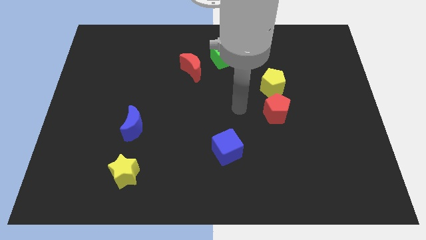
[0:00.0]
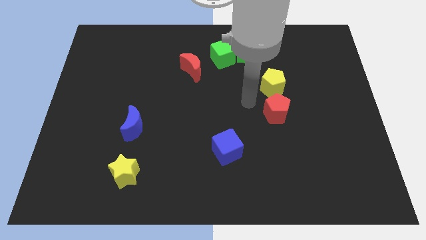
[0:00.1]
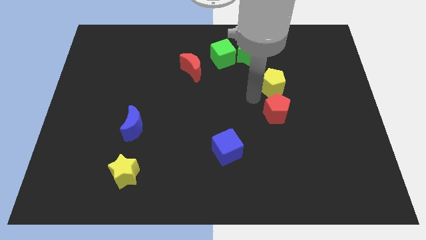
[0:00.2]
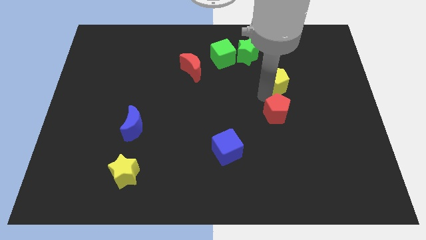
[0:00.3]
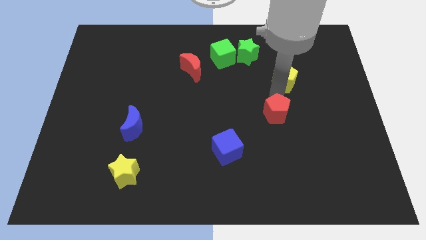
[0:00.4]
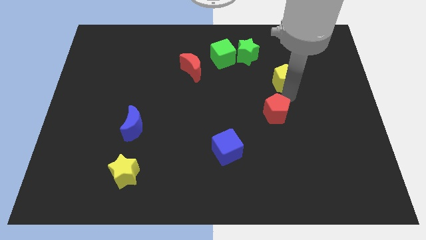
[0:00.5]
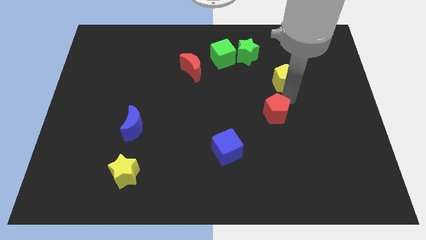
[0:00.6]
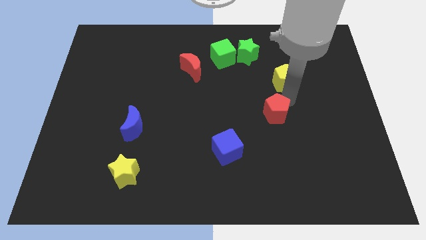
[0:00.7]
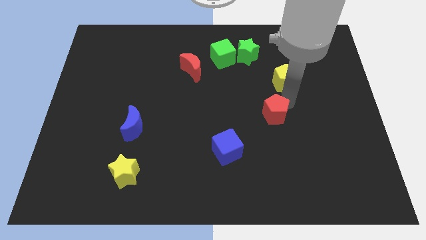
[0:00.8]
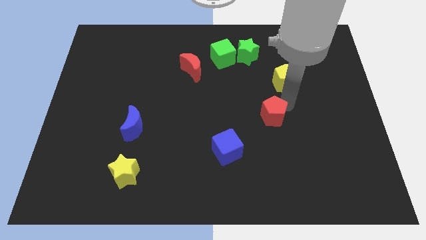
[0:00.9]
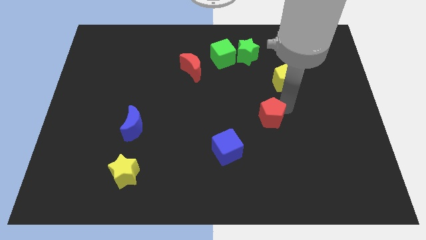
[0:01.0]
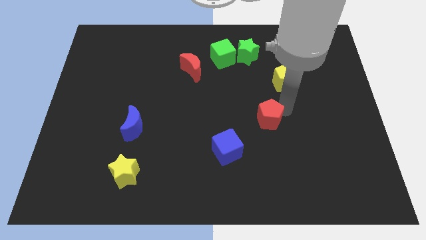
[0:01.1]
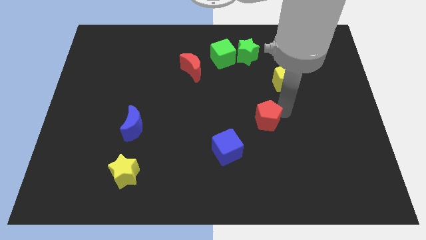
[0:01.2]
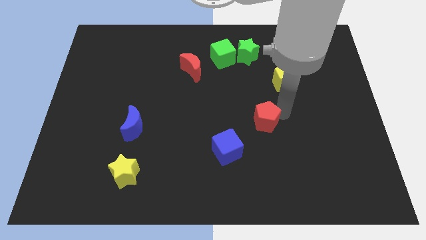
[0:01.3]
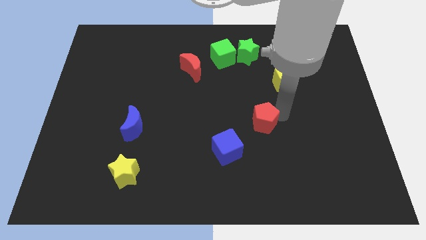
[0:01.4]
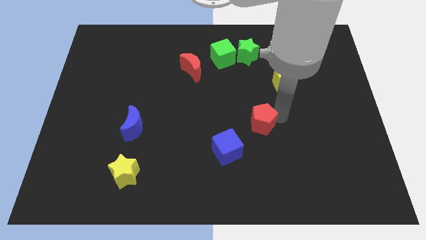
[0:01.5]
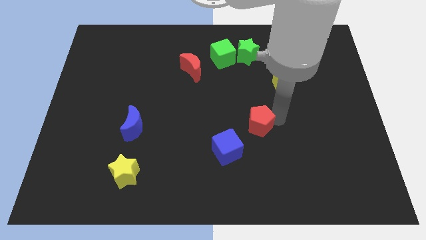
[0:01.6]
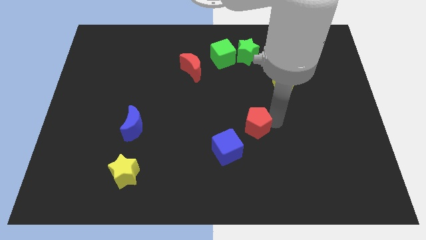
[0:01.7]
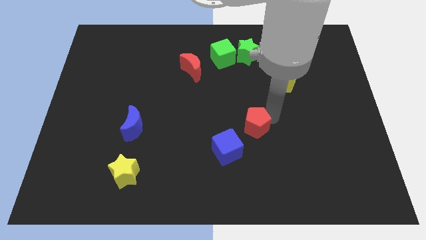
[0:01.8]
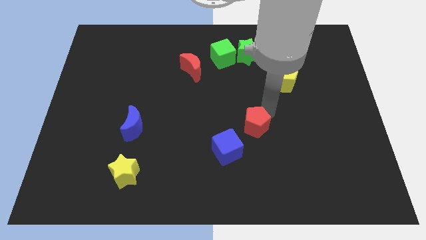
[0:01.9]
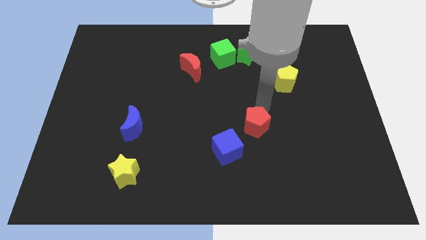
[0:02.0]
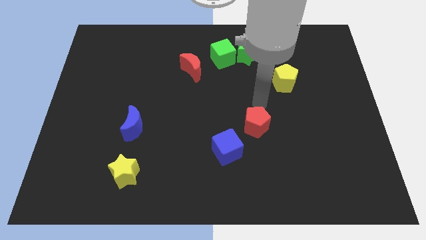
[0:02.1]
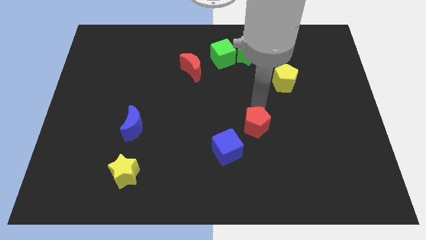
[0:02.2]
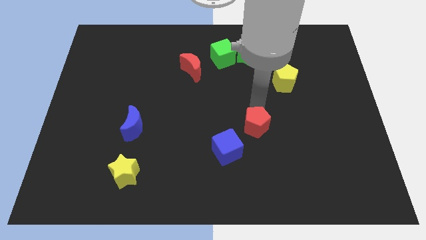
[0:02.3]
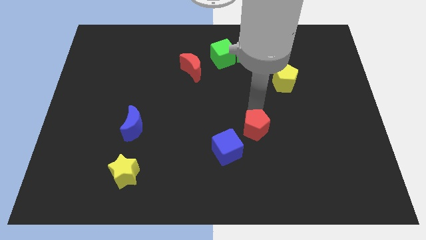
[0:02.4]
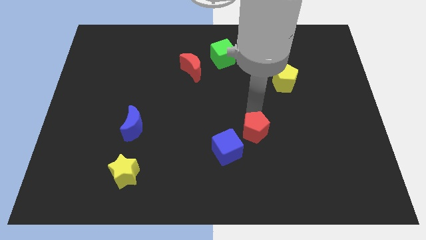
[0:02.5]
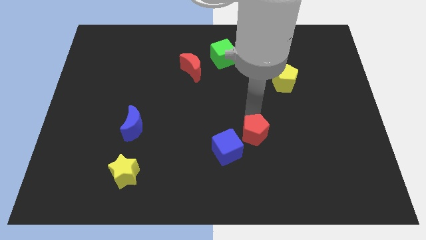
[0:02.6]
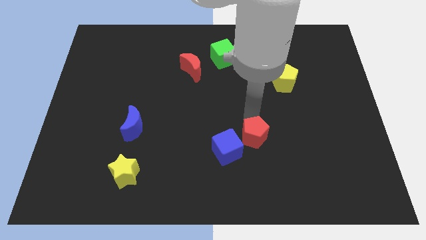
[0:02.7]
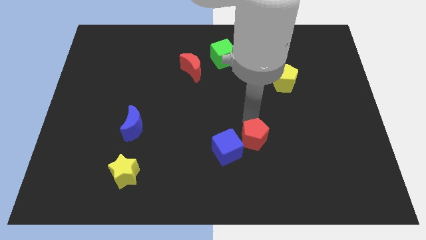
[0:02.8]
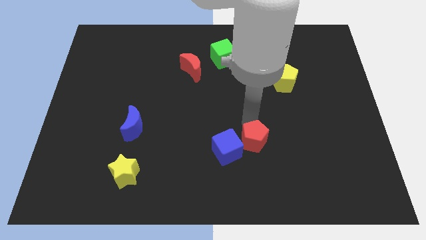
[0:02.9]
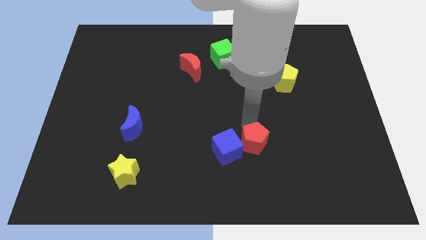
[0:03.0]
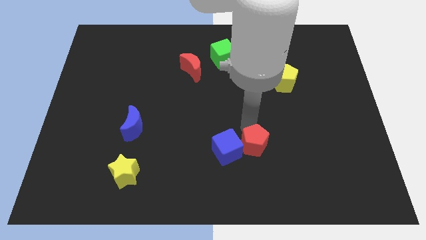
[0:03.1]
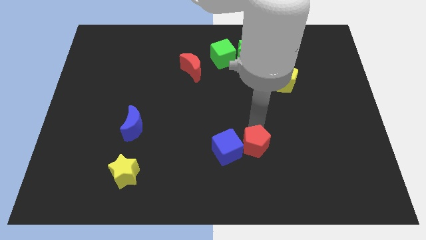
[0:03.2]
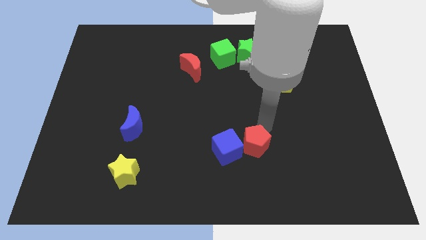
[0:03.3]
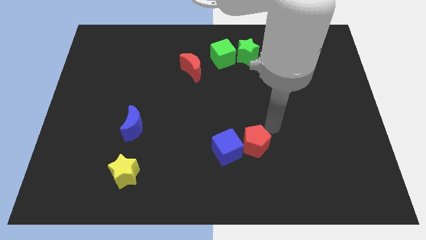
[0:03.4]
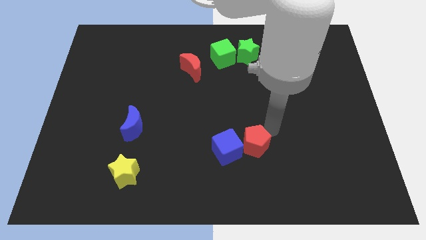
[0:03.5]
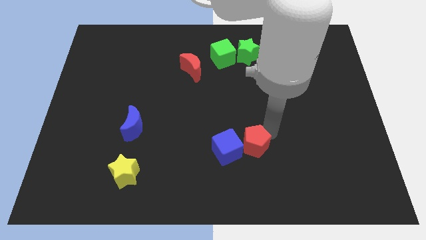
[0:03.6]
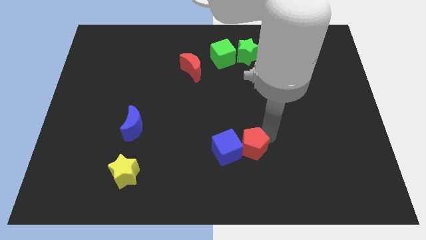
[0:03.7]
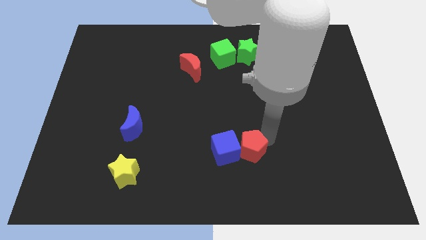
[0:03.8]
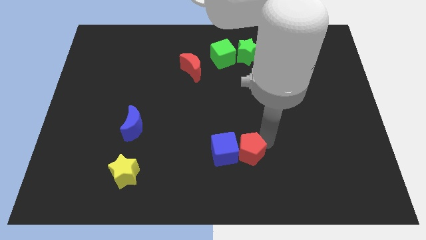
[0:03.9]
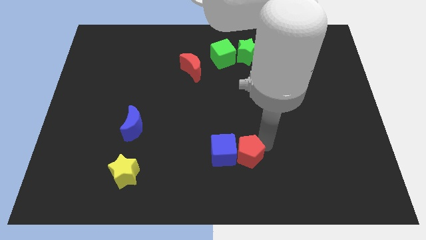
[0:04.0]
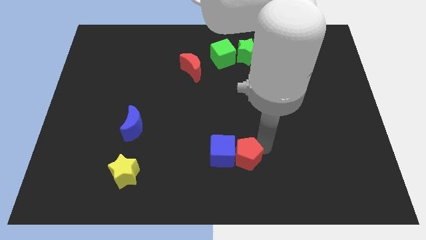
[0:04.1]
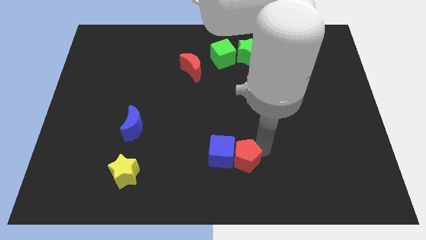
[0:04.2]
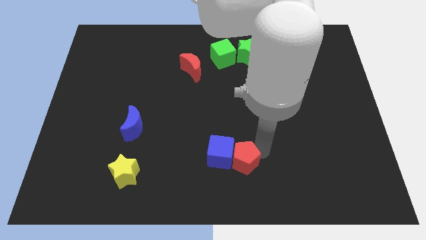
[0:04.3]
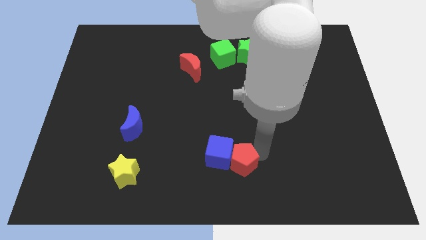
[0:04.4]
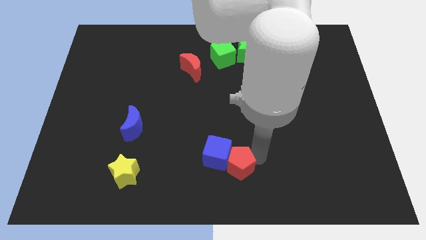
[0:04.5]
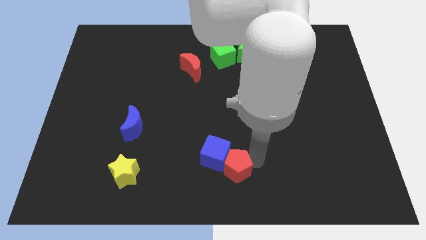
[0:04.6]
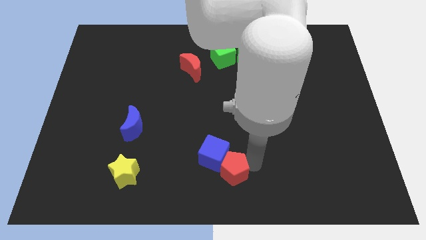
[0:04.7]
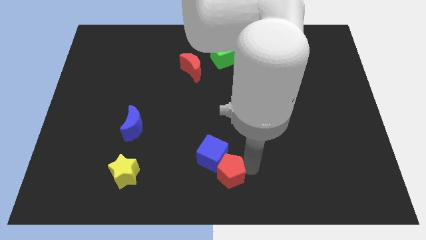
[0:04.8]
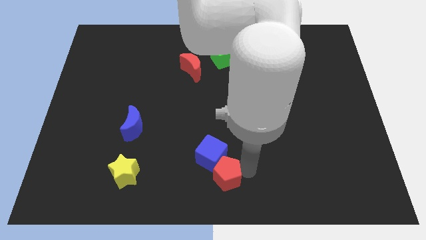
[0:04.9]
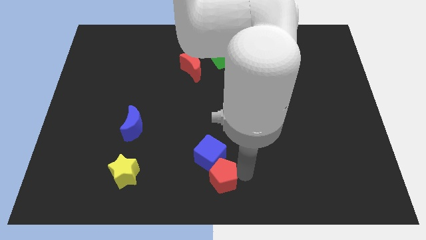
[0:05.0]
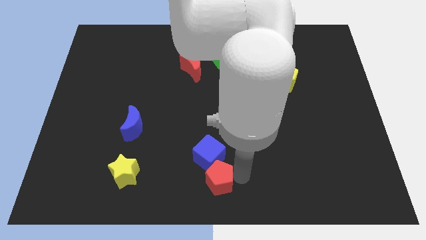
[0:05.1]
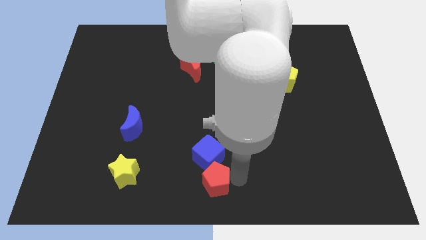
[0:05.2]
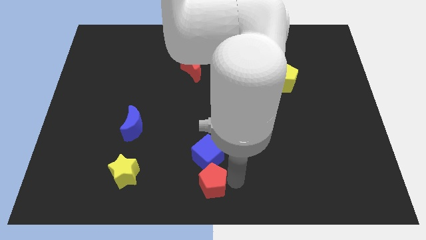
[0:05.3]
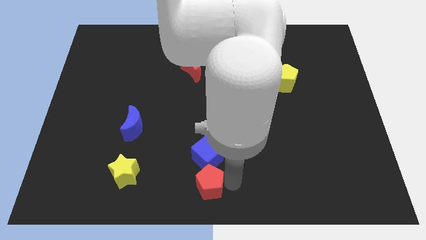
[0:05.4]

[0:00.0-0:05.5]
slide the red pentagon to the bottom left of the blue cube

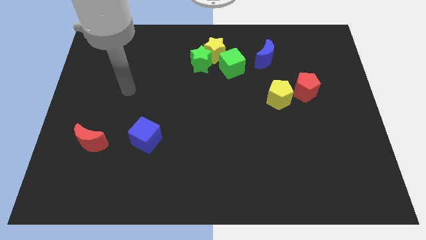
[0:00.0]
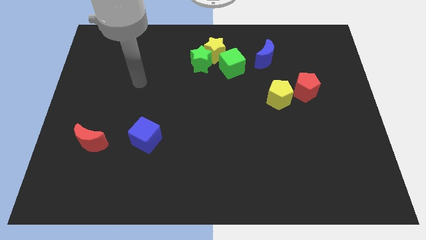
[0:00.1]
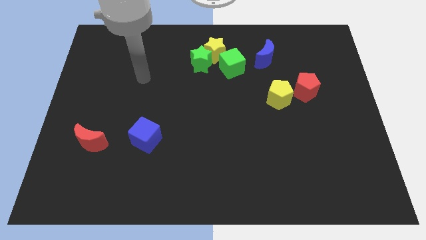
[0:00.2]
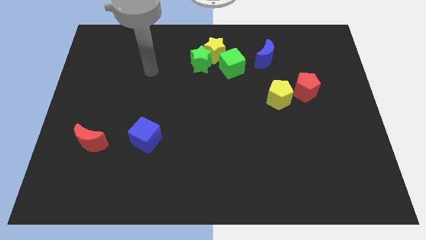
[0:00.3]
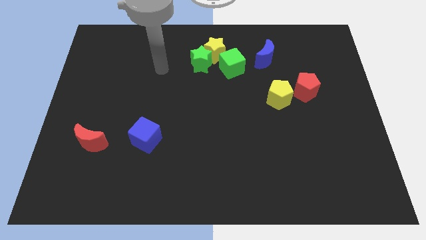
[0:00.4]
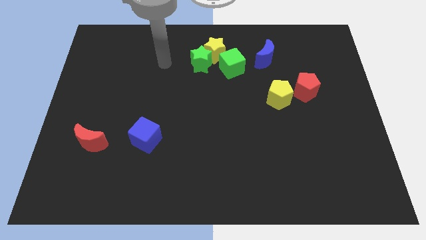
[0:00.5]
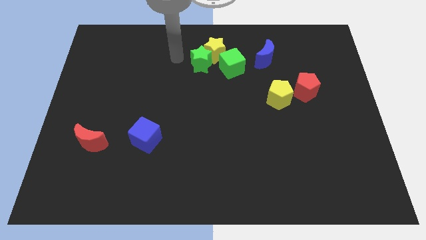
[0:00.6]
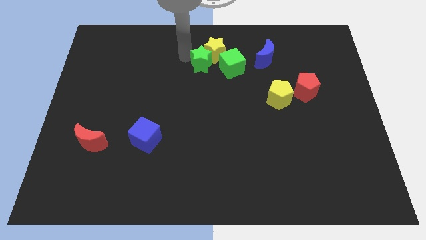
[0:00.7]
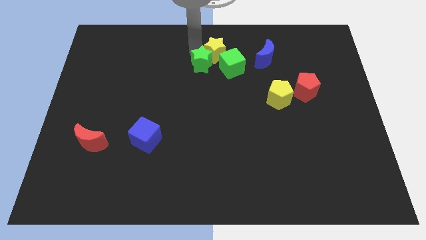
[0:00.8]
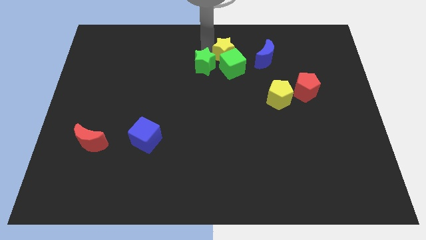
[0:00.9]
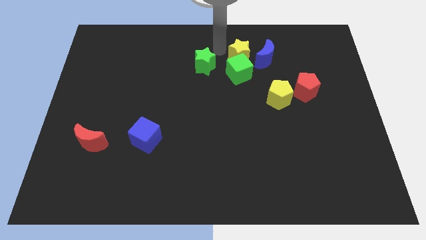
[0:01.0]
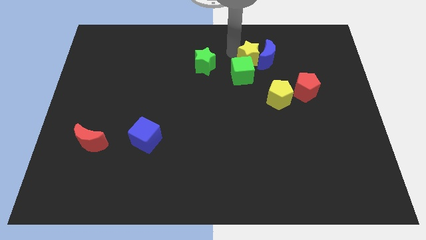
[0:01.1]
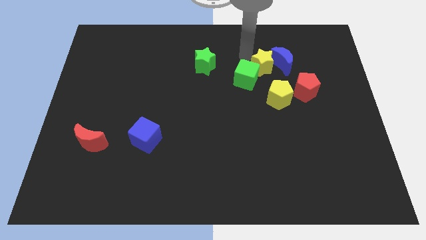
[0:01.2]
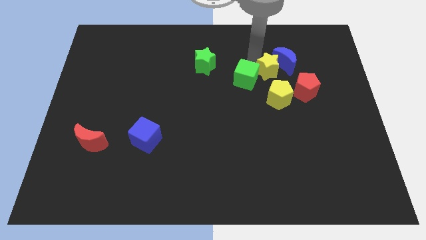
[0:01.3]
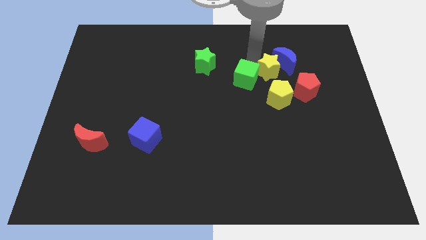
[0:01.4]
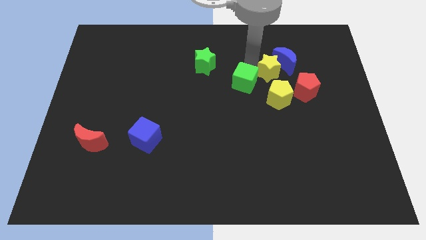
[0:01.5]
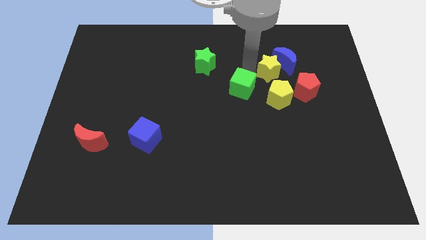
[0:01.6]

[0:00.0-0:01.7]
move the green cube just left of the yellow pentagon
